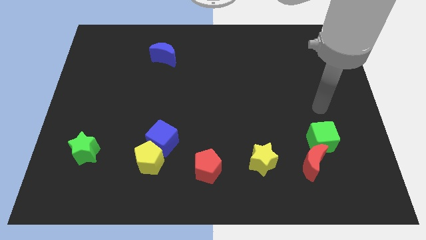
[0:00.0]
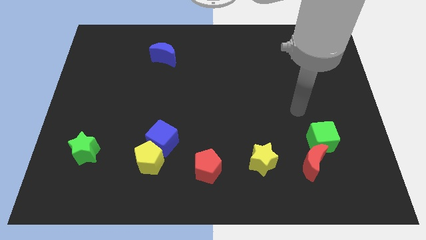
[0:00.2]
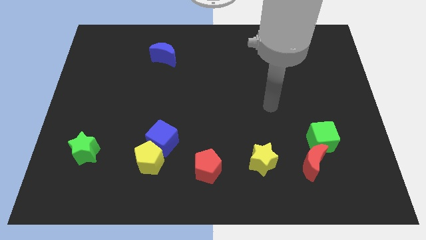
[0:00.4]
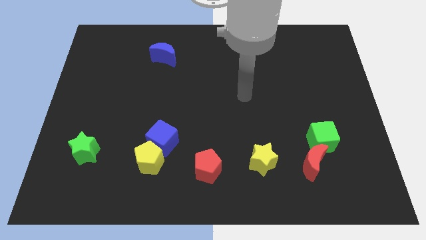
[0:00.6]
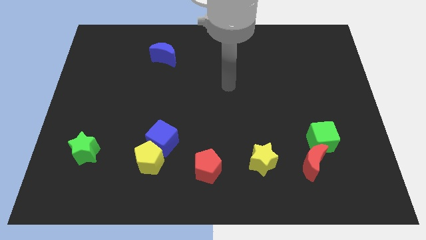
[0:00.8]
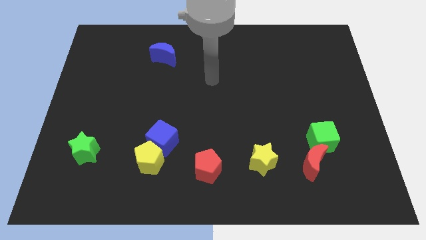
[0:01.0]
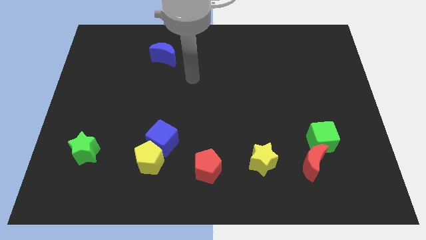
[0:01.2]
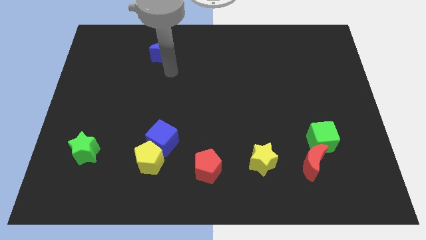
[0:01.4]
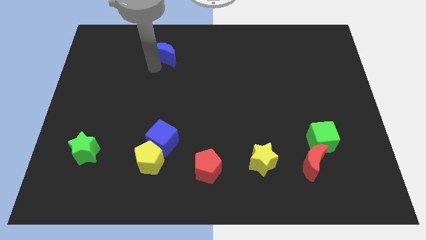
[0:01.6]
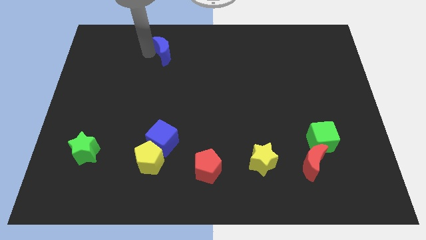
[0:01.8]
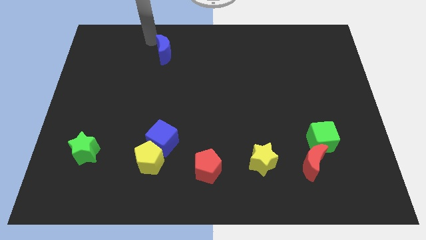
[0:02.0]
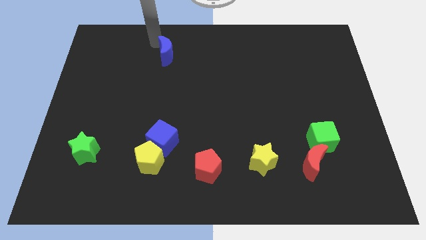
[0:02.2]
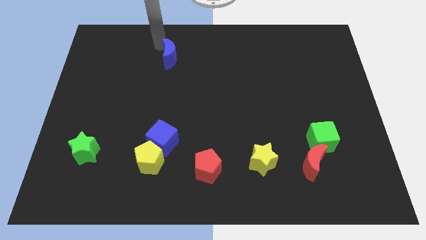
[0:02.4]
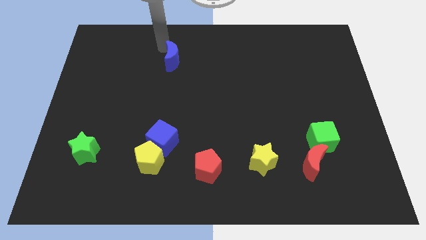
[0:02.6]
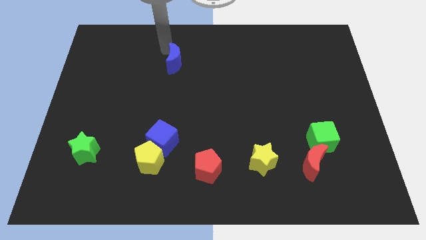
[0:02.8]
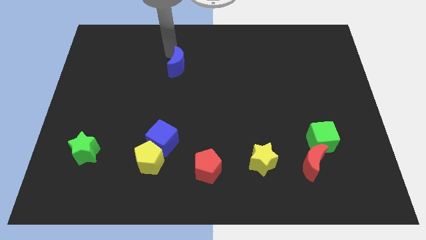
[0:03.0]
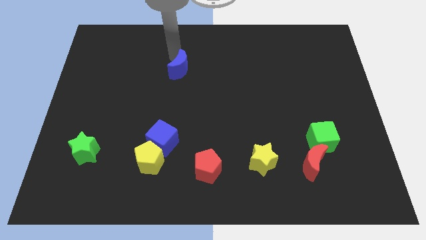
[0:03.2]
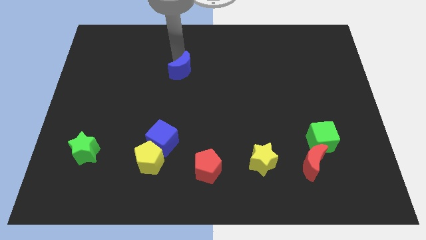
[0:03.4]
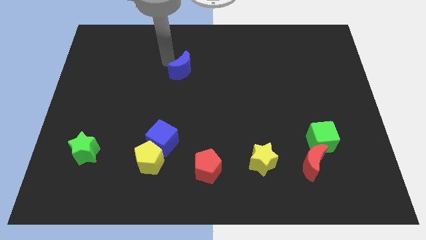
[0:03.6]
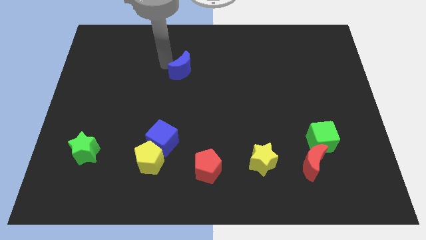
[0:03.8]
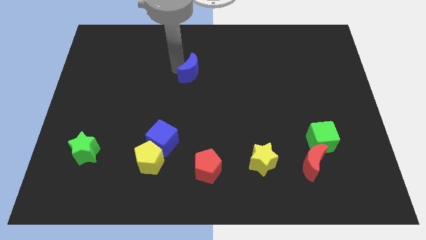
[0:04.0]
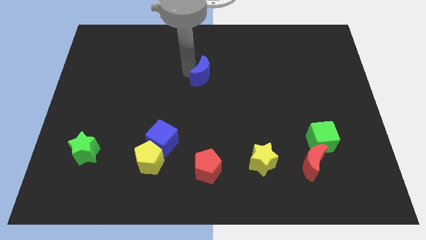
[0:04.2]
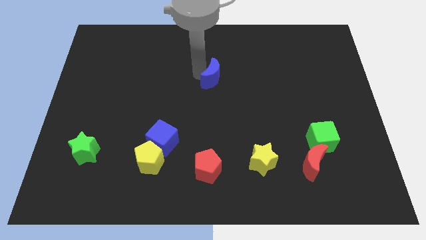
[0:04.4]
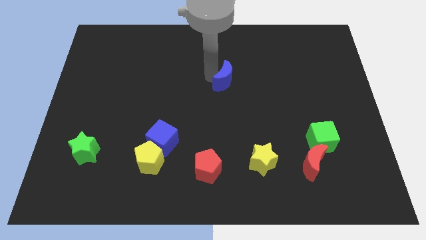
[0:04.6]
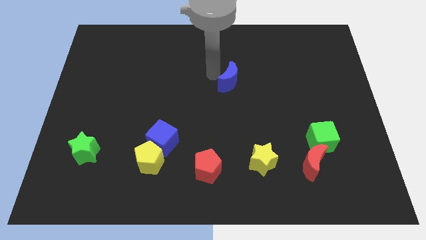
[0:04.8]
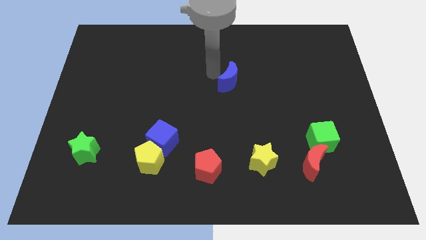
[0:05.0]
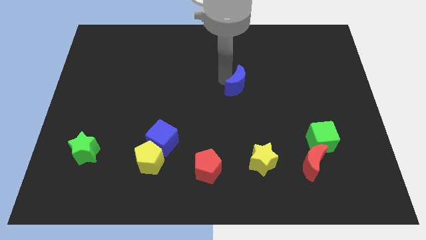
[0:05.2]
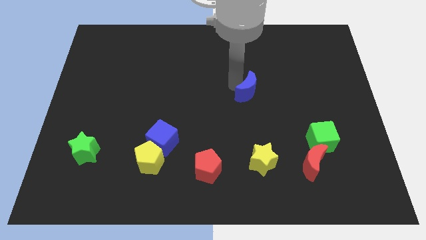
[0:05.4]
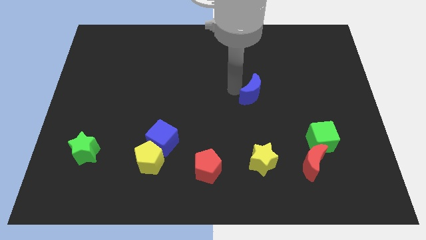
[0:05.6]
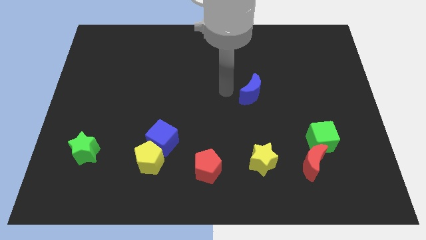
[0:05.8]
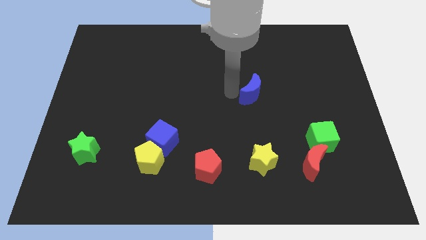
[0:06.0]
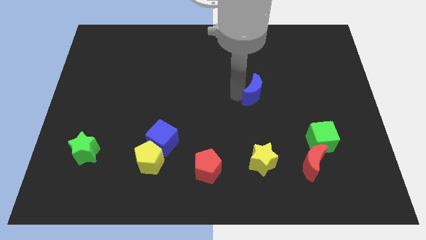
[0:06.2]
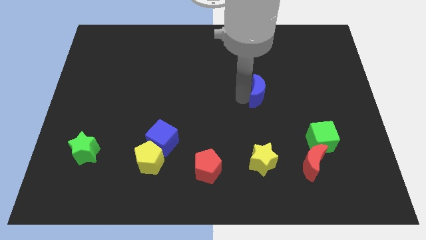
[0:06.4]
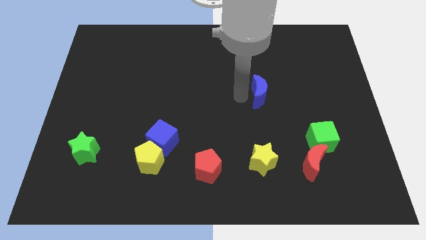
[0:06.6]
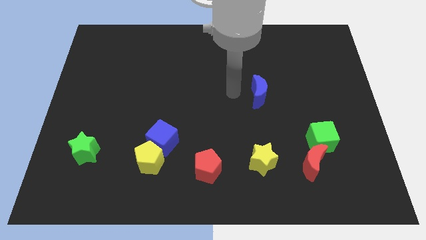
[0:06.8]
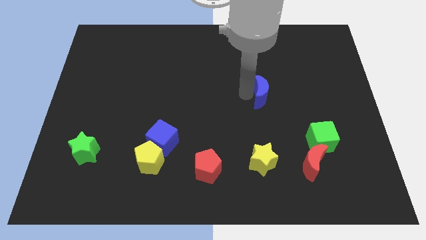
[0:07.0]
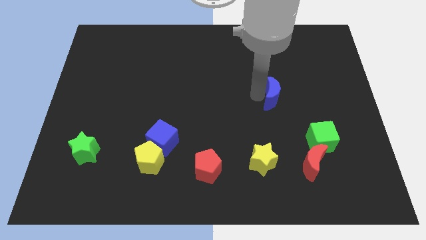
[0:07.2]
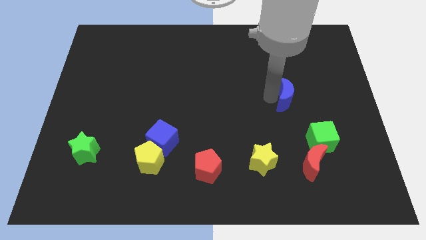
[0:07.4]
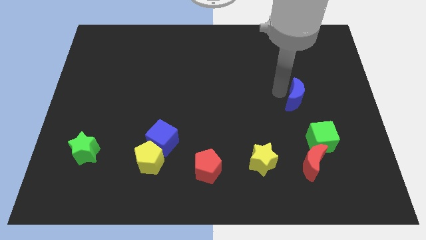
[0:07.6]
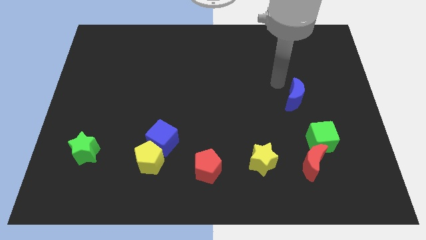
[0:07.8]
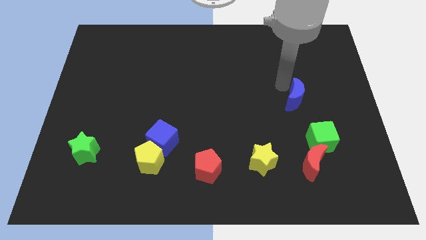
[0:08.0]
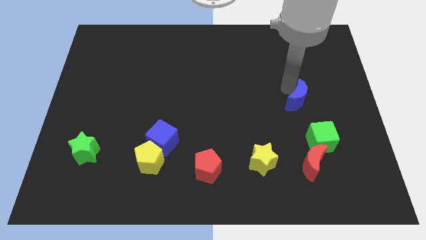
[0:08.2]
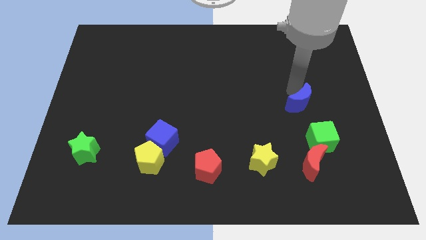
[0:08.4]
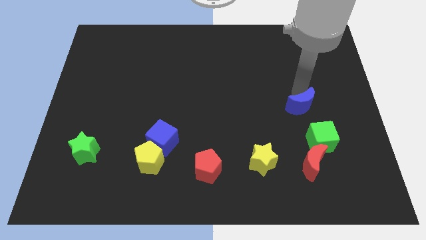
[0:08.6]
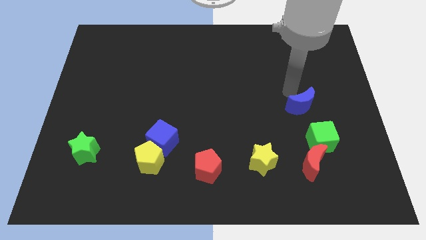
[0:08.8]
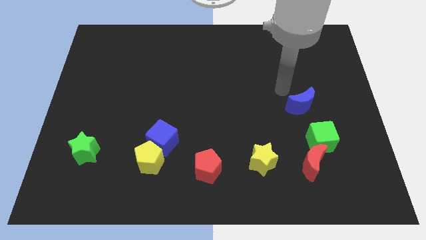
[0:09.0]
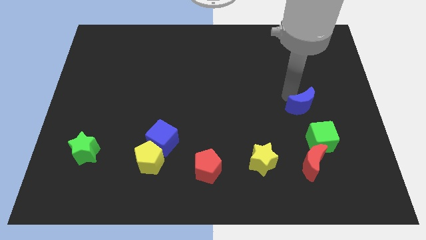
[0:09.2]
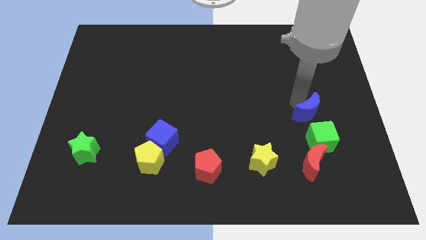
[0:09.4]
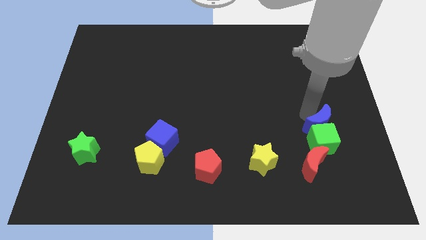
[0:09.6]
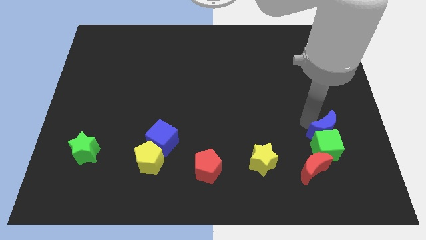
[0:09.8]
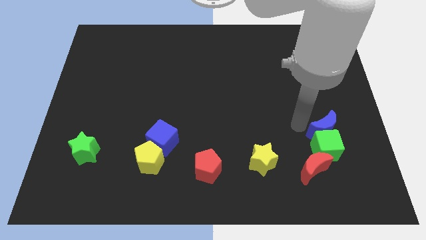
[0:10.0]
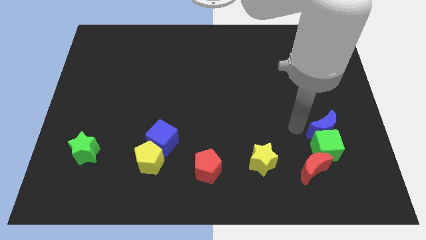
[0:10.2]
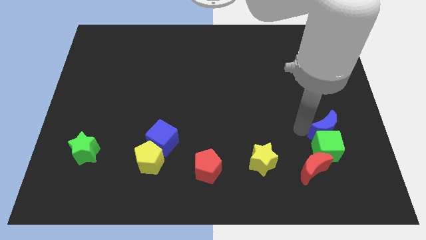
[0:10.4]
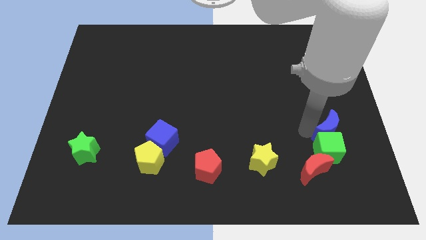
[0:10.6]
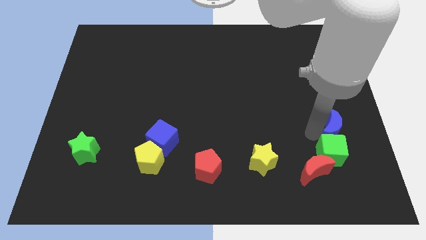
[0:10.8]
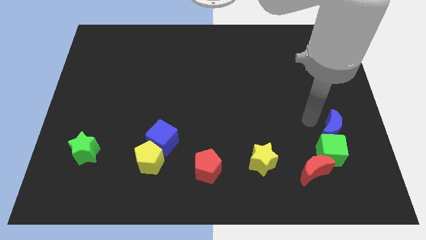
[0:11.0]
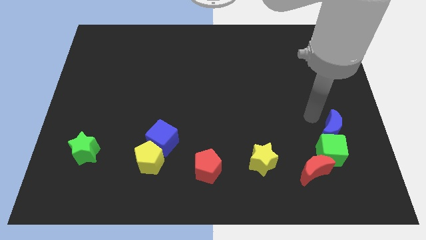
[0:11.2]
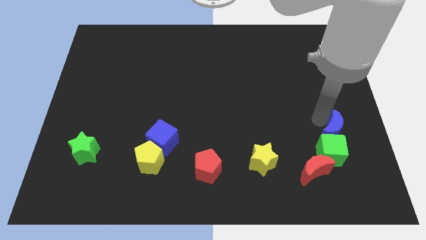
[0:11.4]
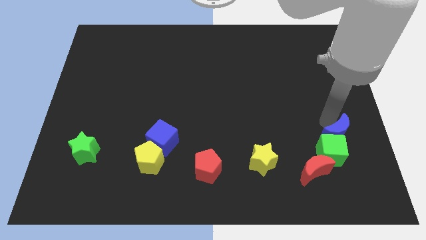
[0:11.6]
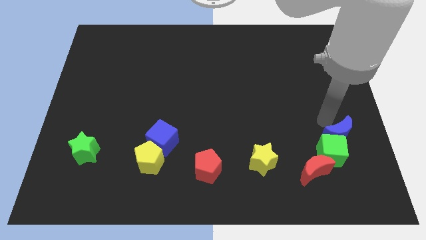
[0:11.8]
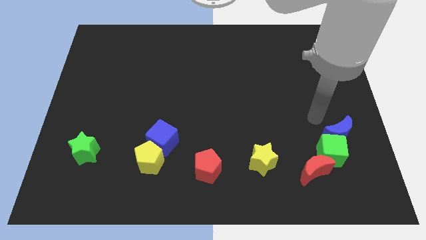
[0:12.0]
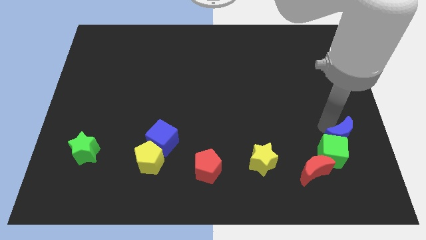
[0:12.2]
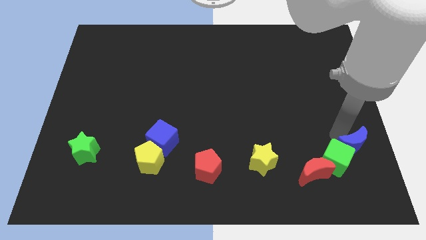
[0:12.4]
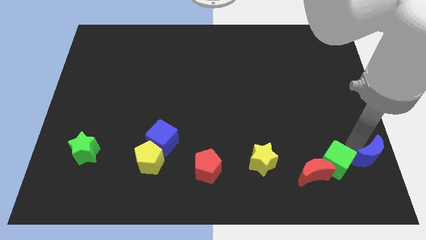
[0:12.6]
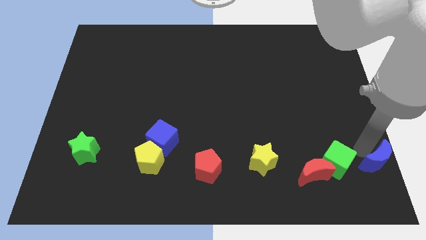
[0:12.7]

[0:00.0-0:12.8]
slide the blue moon to the bottom right
